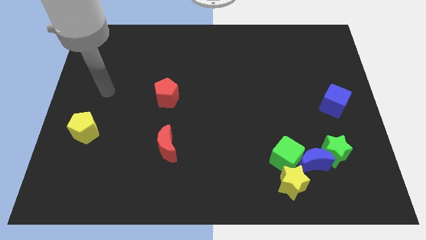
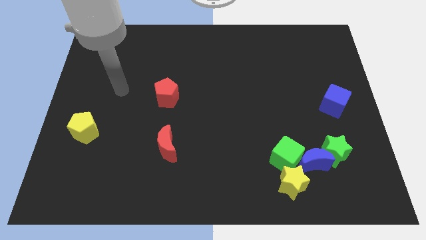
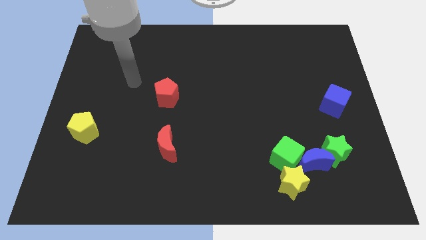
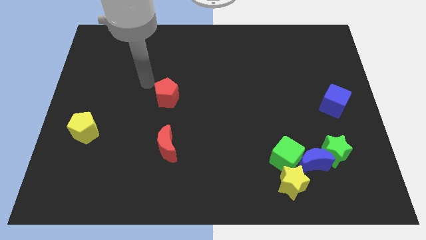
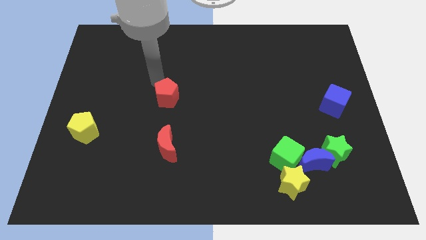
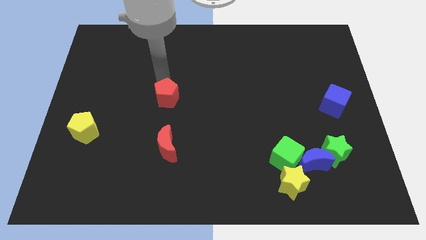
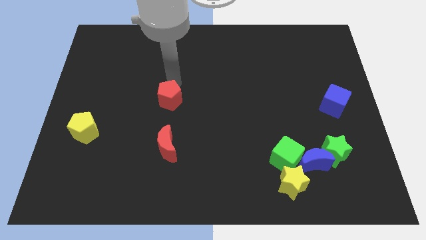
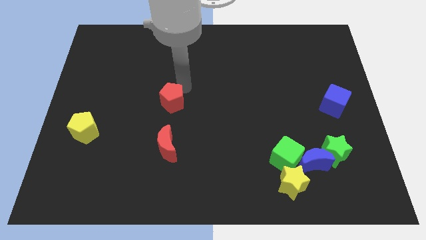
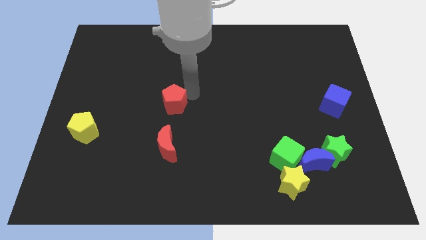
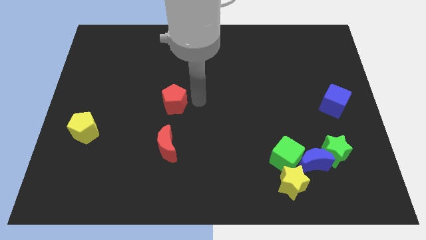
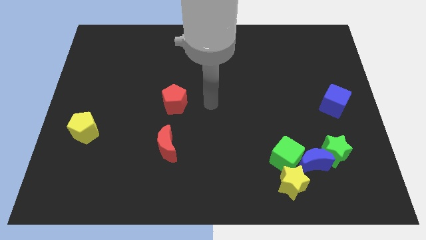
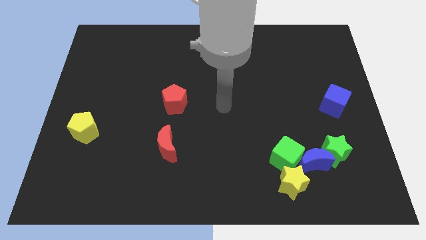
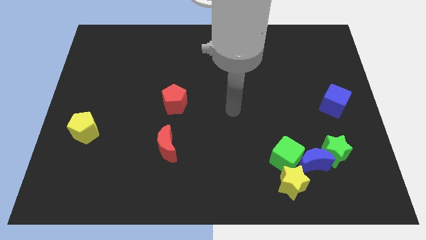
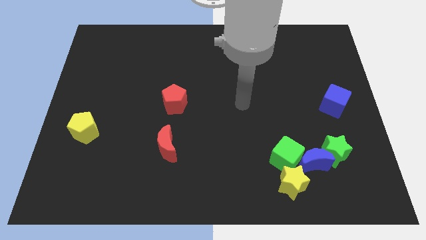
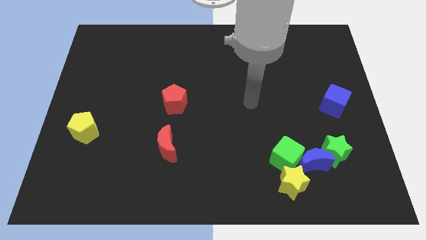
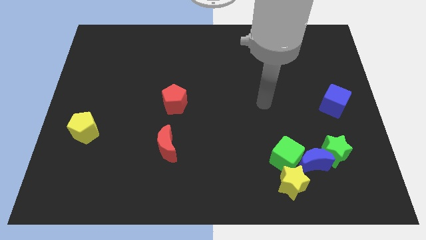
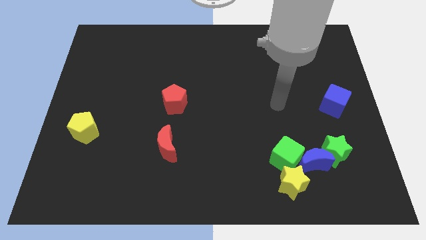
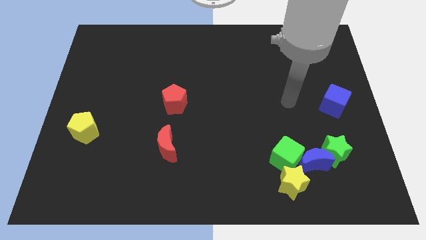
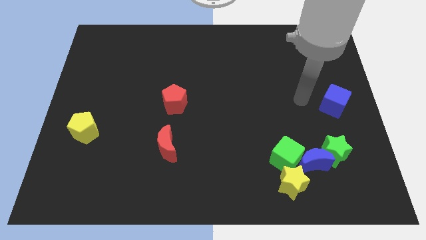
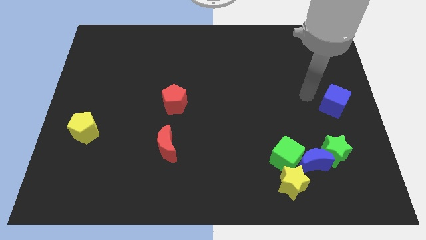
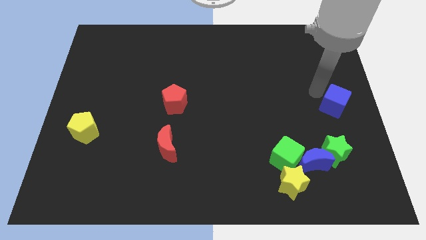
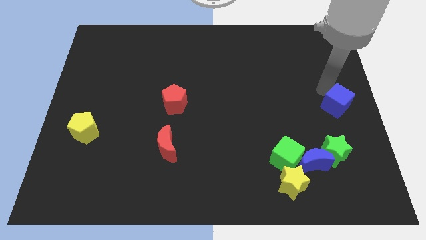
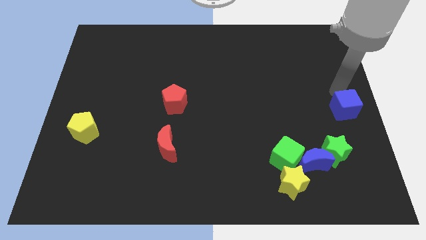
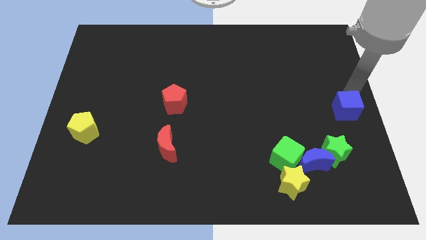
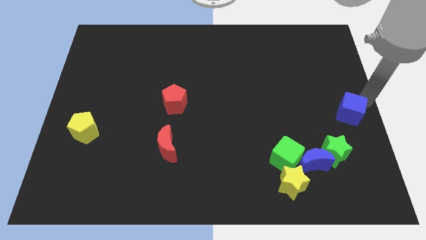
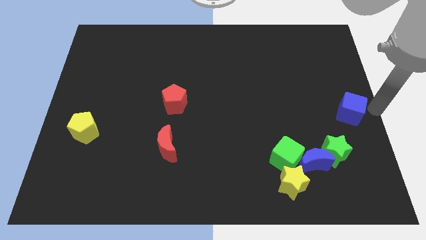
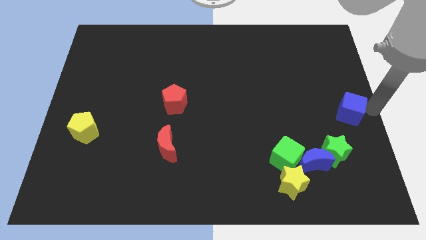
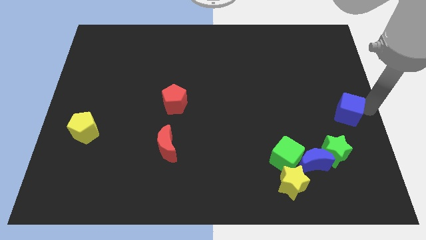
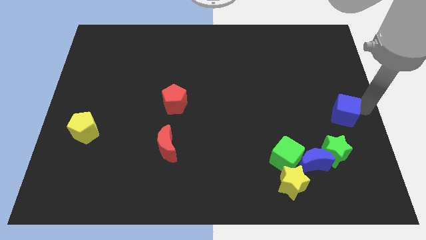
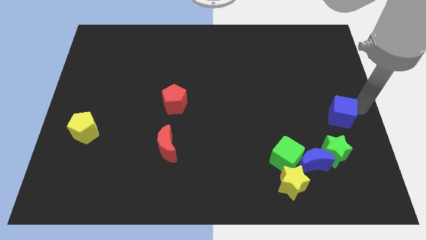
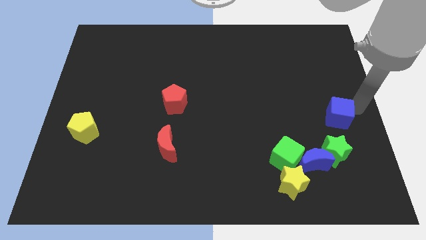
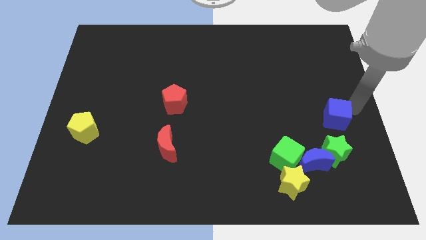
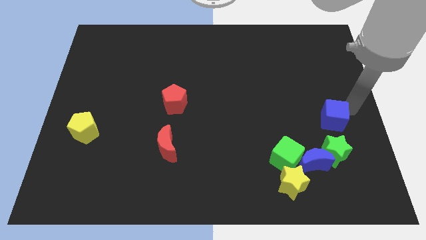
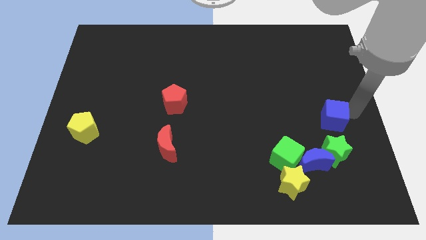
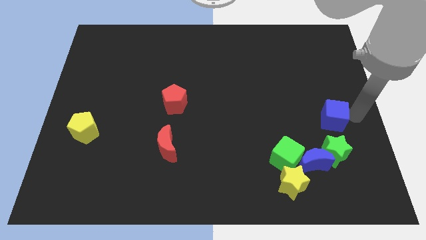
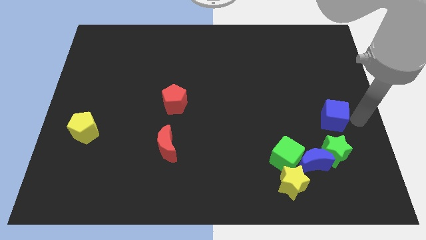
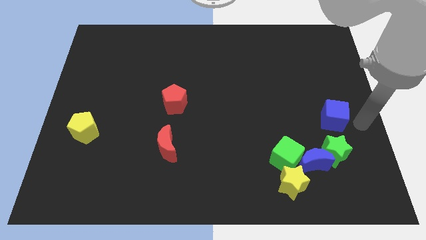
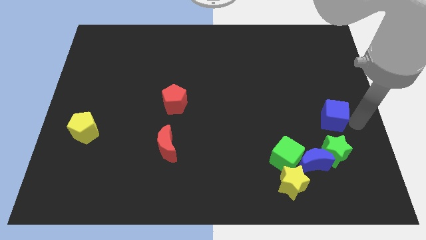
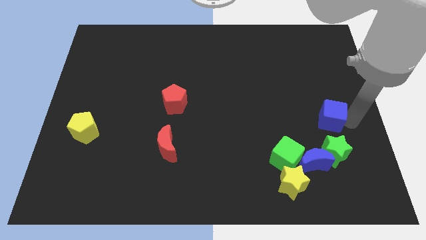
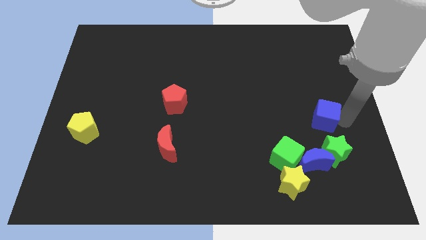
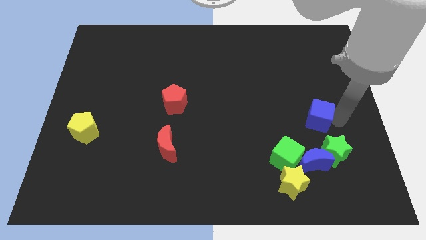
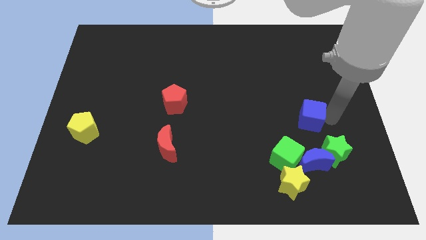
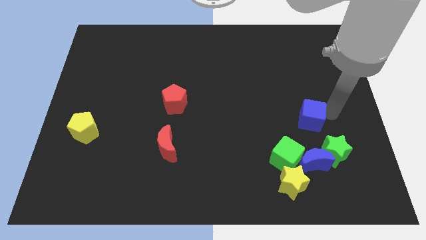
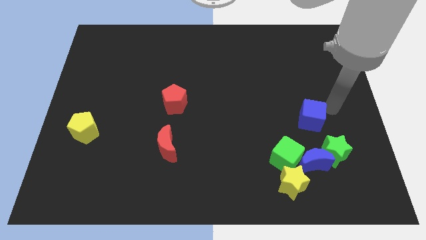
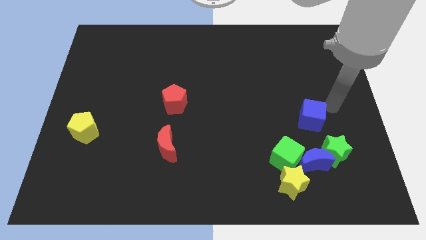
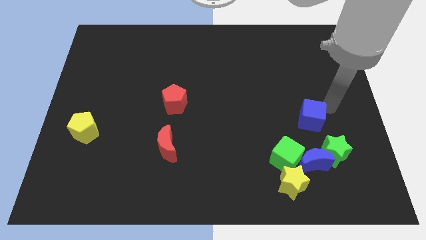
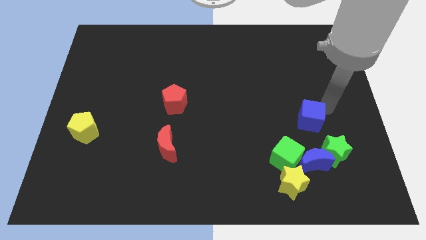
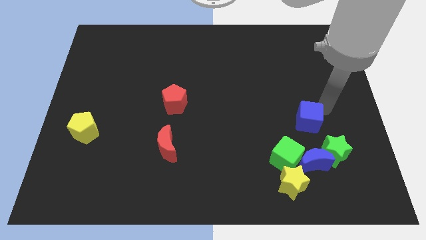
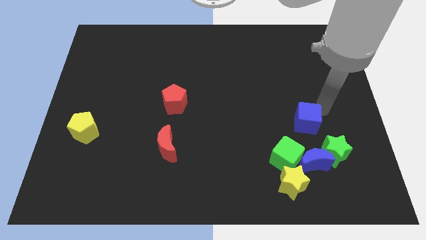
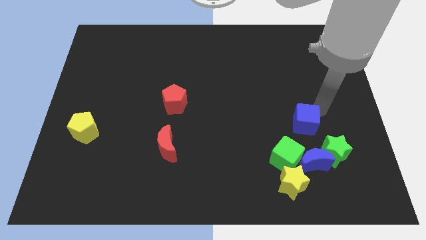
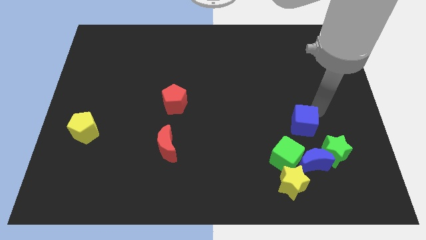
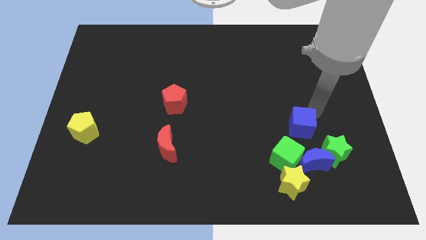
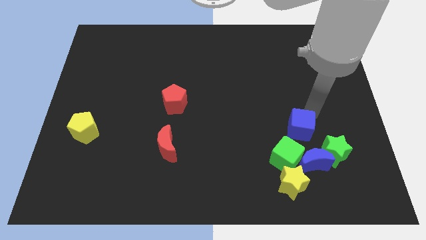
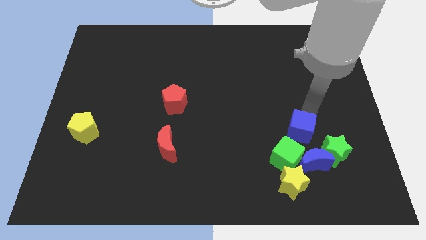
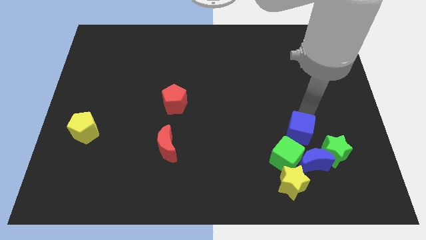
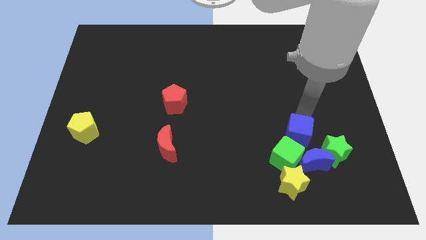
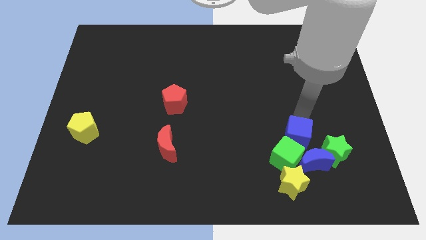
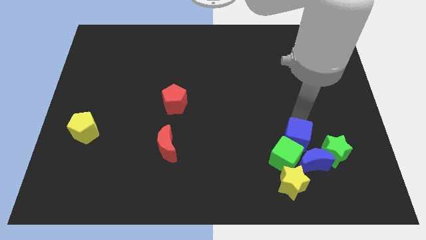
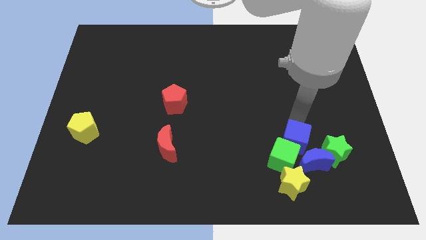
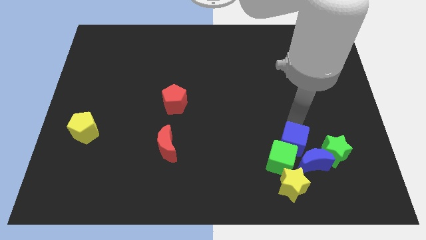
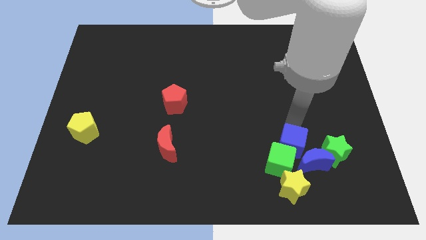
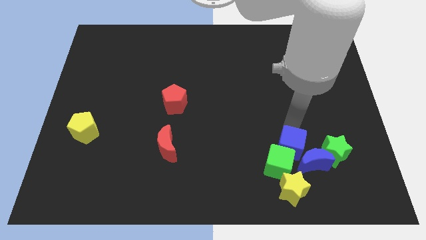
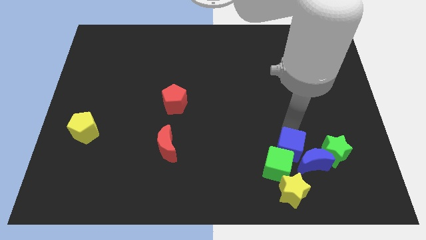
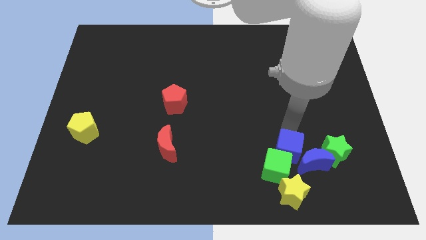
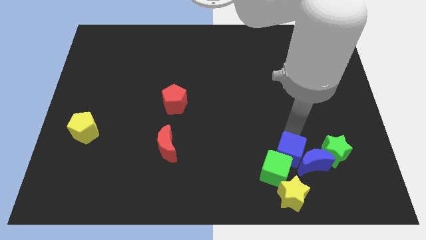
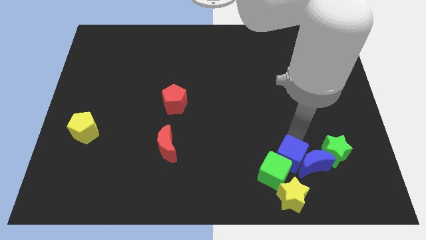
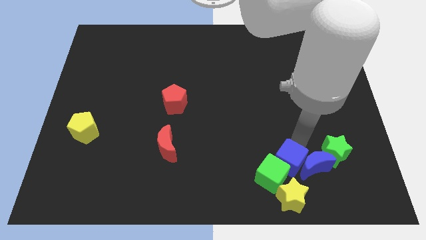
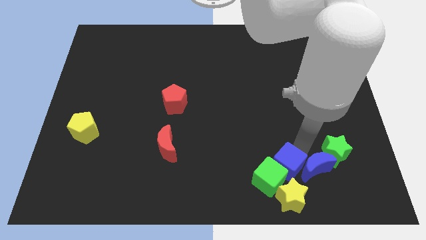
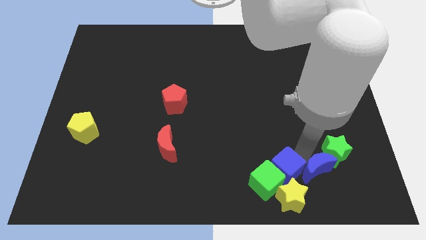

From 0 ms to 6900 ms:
put the blue cube to the top left side of the yellow star
